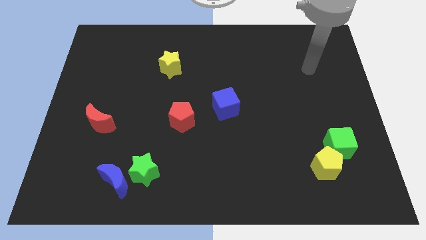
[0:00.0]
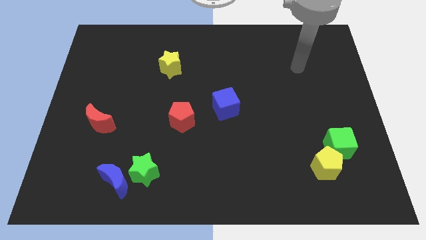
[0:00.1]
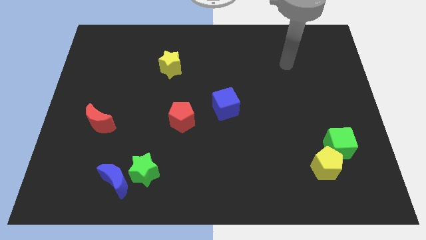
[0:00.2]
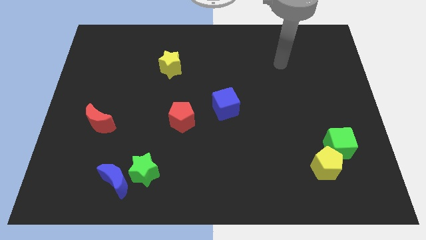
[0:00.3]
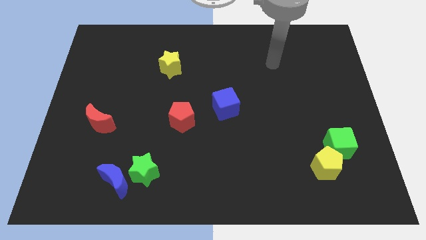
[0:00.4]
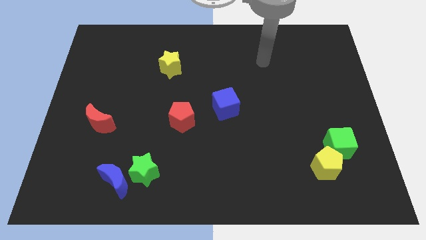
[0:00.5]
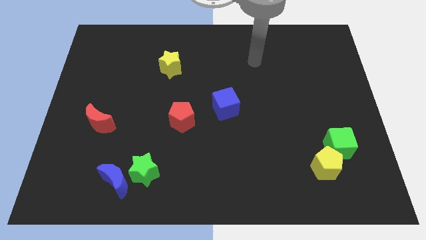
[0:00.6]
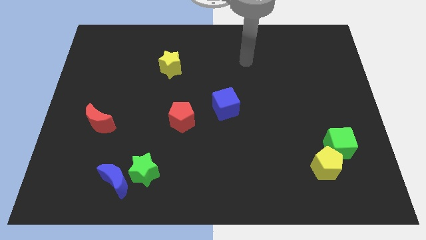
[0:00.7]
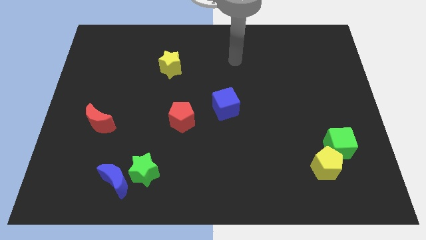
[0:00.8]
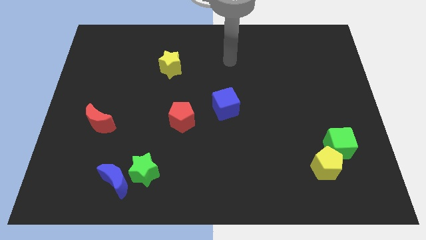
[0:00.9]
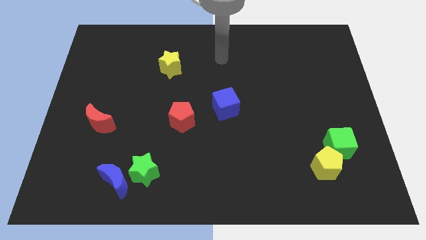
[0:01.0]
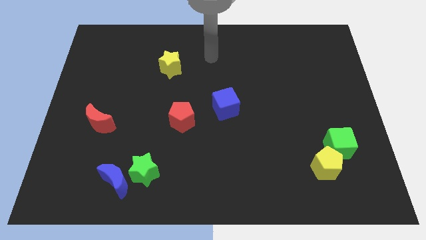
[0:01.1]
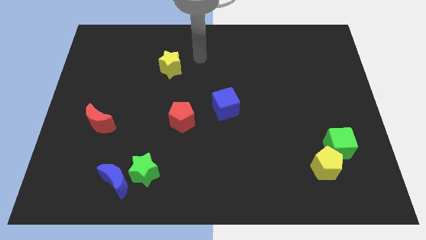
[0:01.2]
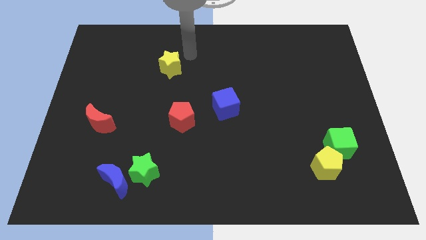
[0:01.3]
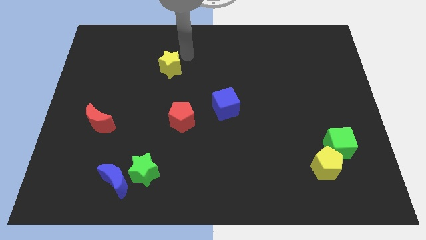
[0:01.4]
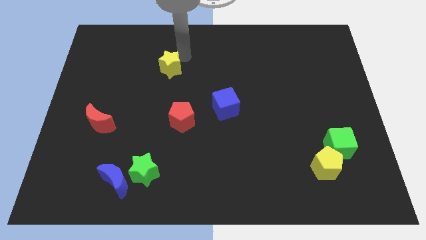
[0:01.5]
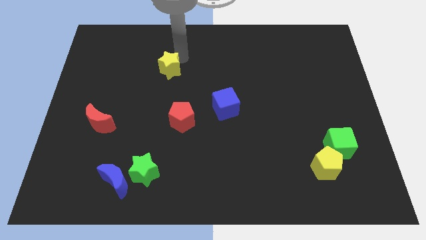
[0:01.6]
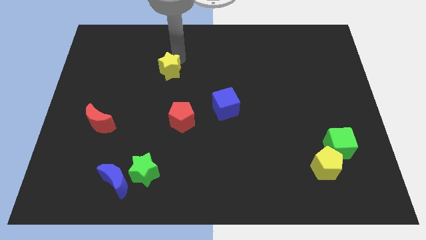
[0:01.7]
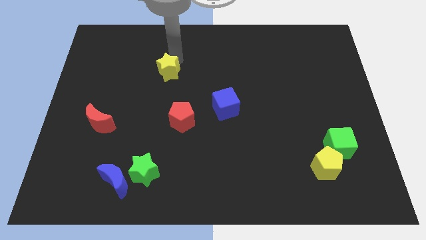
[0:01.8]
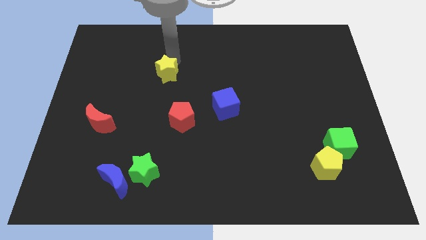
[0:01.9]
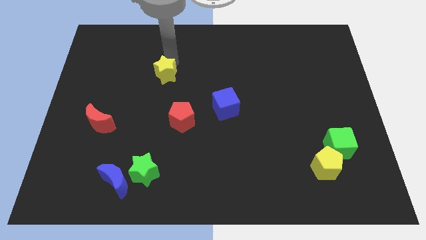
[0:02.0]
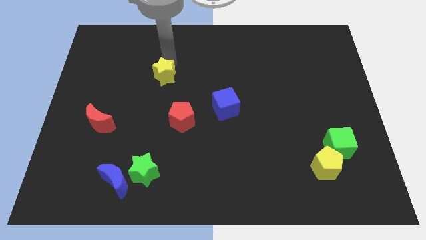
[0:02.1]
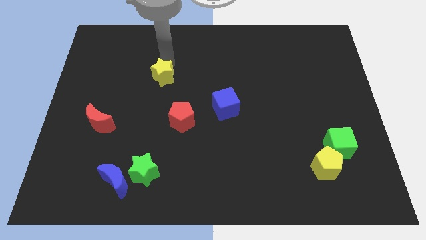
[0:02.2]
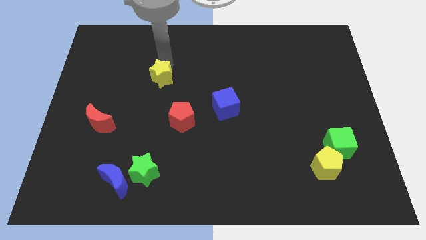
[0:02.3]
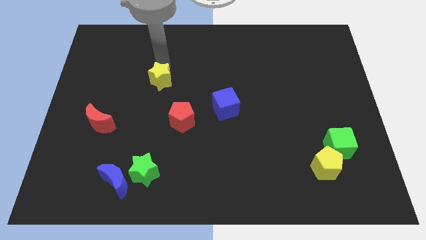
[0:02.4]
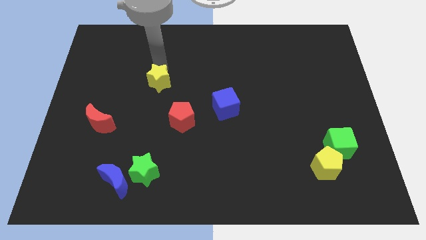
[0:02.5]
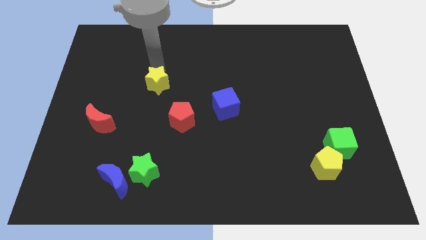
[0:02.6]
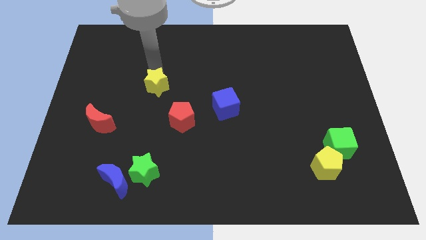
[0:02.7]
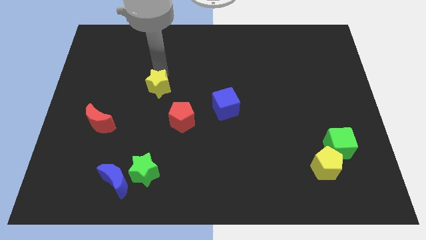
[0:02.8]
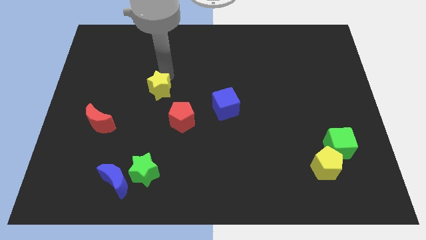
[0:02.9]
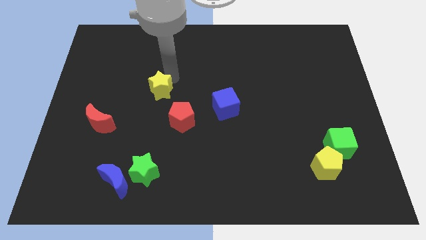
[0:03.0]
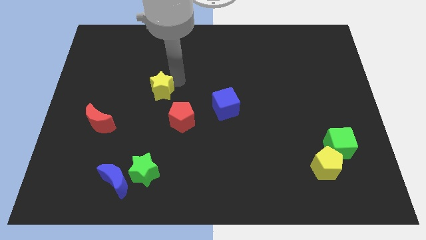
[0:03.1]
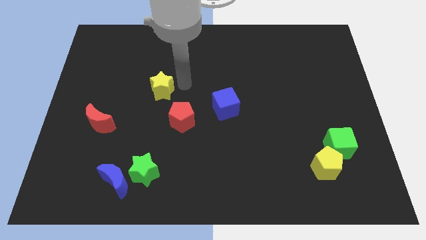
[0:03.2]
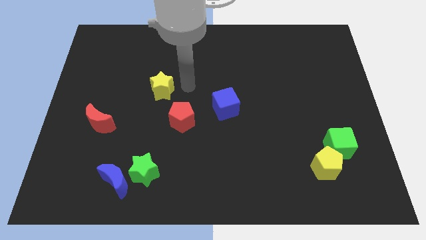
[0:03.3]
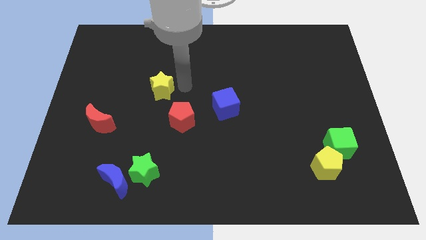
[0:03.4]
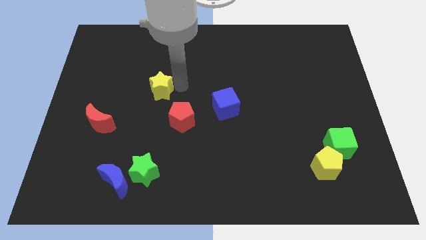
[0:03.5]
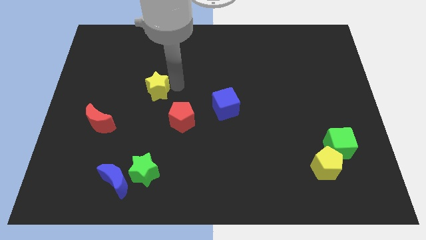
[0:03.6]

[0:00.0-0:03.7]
slide the yellow star down and left diagonally a little

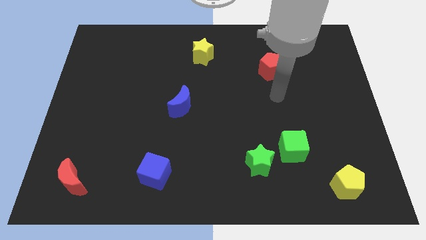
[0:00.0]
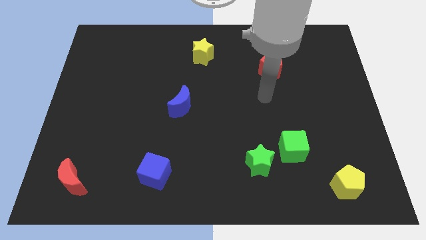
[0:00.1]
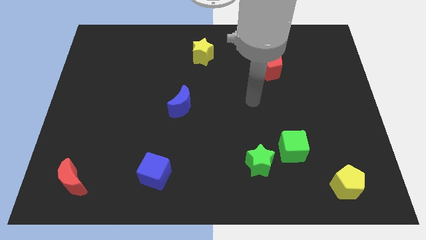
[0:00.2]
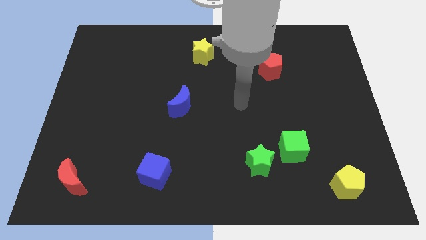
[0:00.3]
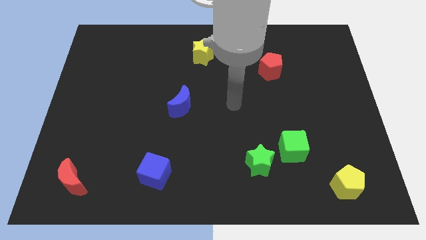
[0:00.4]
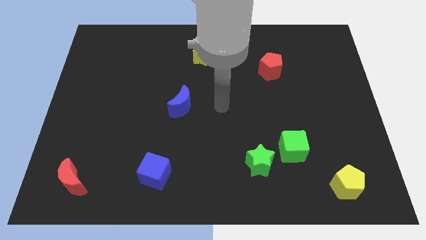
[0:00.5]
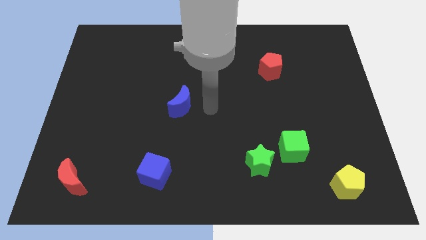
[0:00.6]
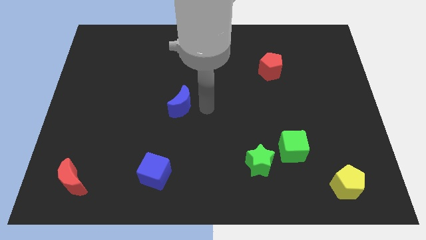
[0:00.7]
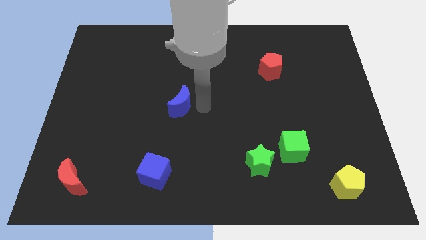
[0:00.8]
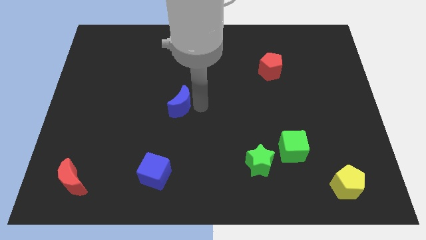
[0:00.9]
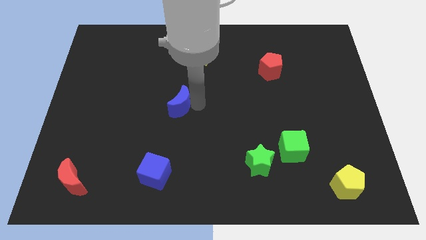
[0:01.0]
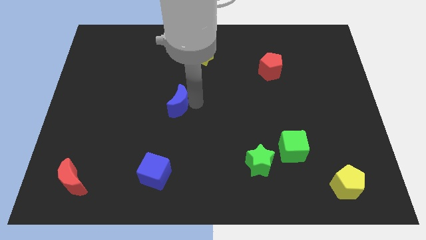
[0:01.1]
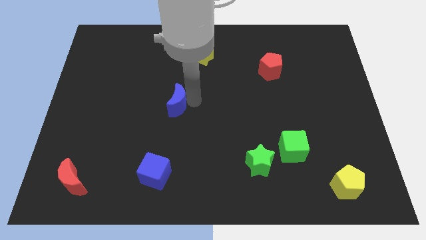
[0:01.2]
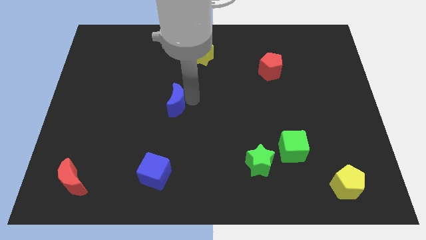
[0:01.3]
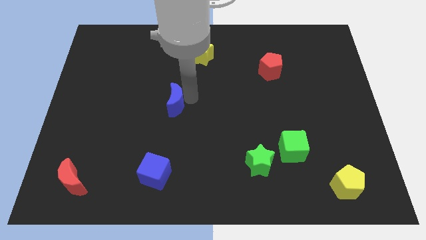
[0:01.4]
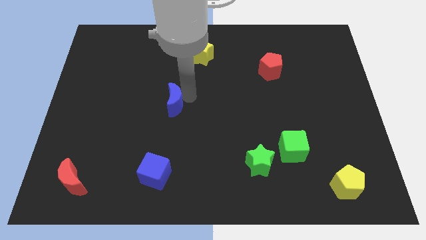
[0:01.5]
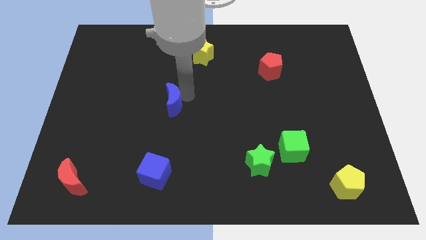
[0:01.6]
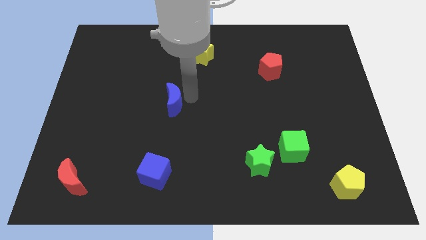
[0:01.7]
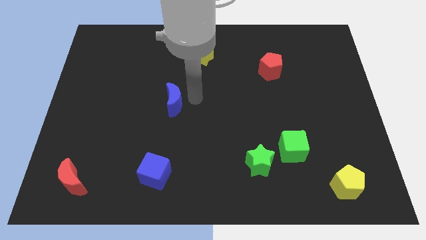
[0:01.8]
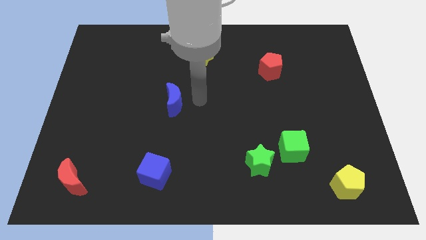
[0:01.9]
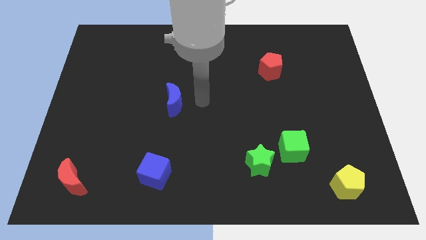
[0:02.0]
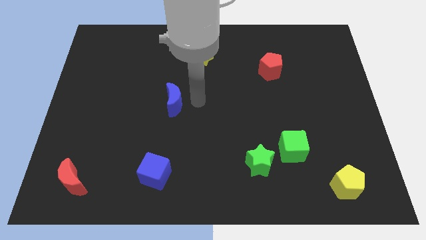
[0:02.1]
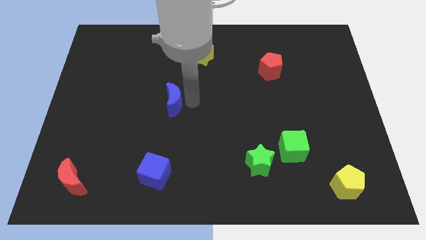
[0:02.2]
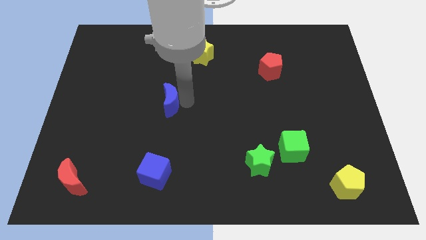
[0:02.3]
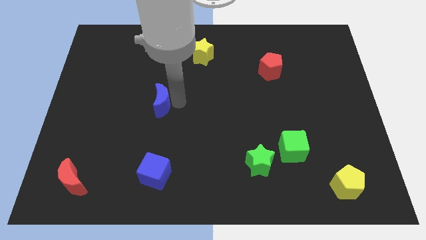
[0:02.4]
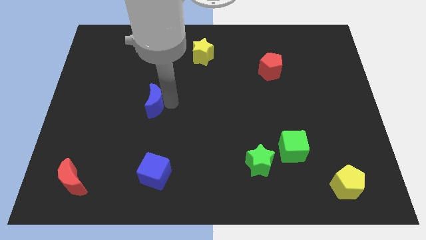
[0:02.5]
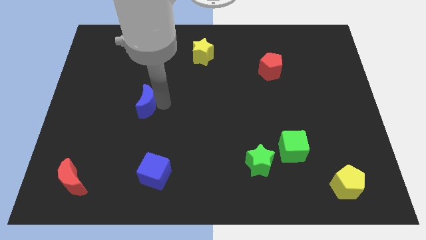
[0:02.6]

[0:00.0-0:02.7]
push the blue moon left somewhat

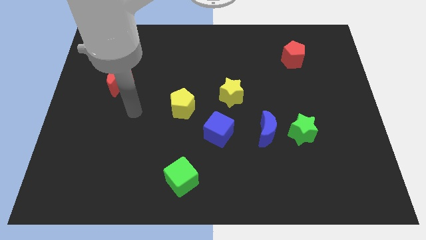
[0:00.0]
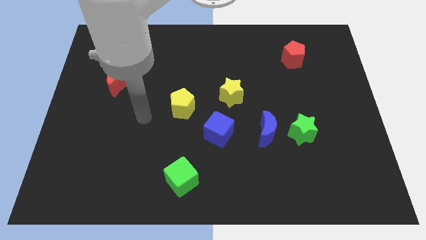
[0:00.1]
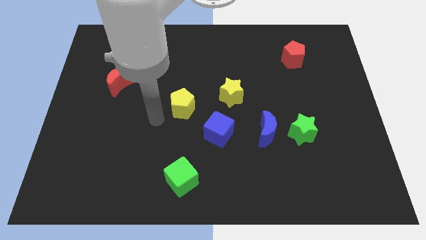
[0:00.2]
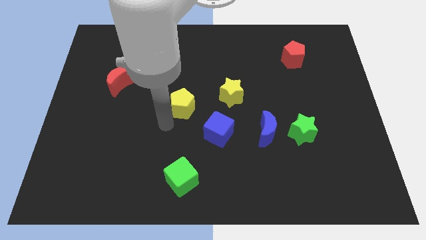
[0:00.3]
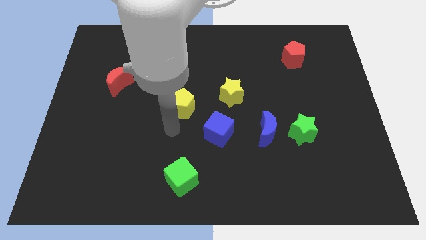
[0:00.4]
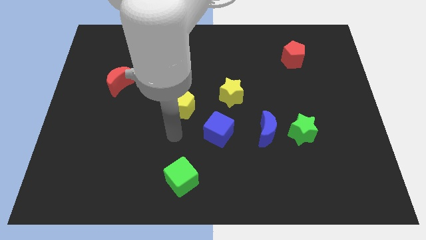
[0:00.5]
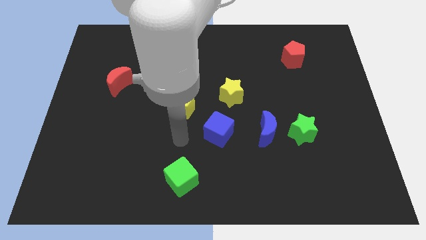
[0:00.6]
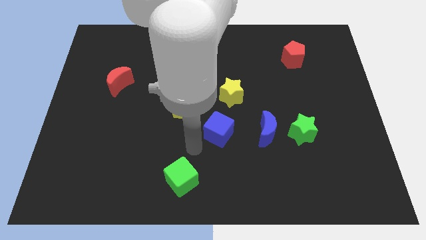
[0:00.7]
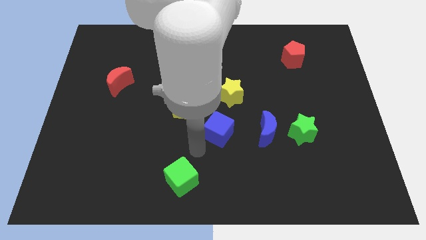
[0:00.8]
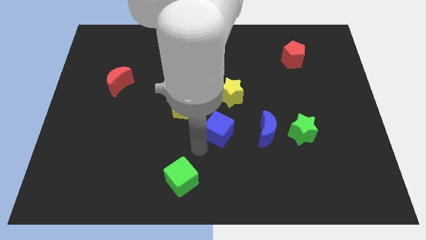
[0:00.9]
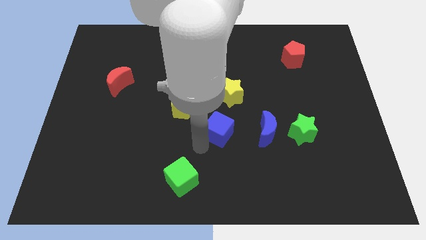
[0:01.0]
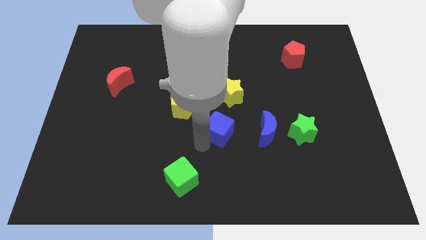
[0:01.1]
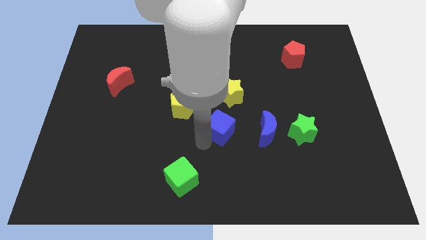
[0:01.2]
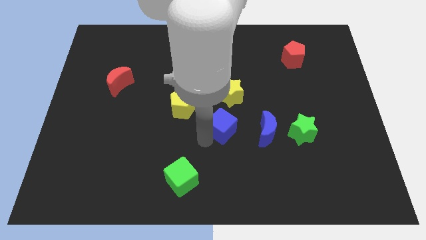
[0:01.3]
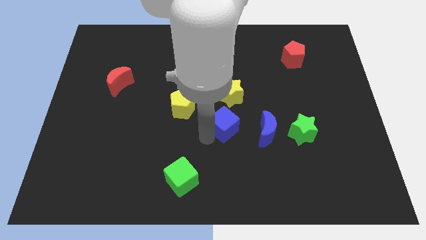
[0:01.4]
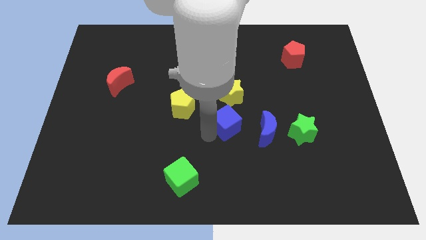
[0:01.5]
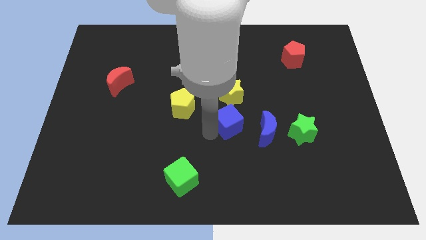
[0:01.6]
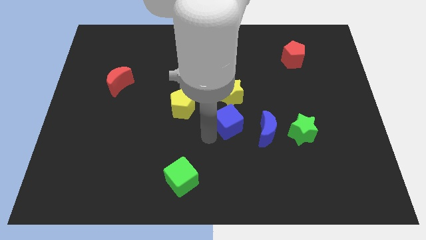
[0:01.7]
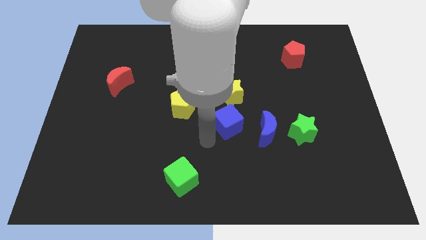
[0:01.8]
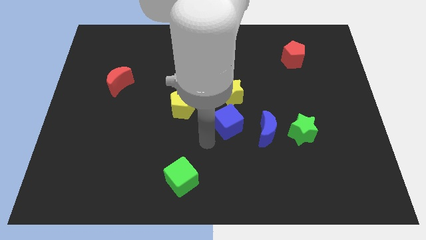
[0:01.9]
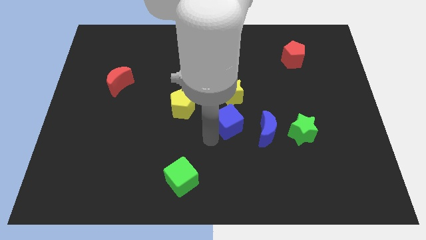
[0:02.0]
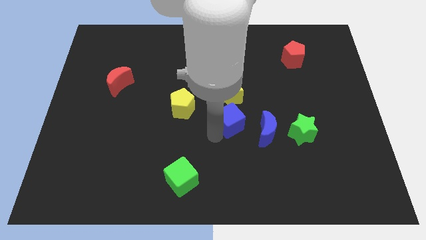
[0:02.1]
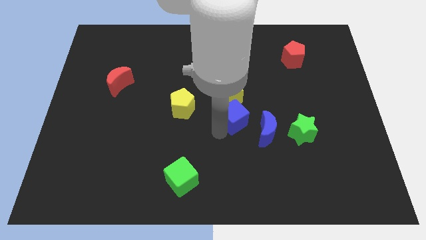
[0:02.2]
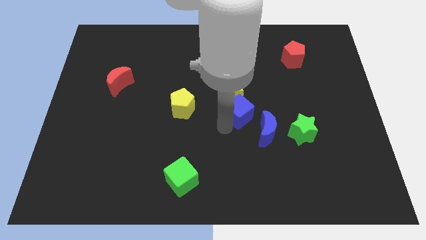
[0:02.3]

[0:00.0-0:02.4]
push the blue cube somewhat upwards and then to the right
